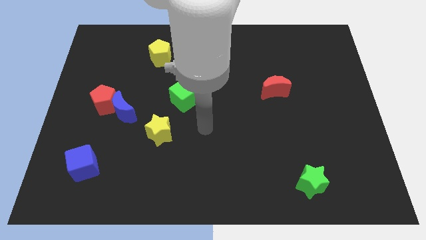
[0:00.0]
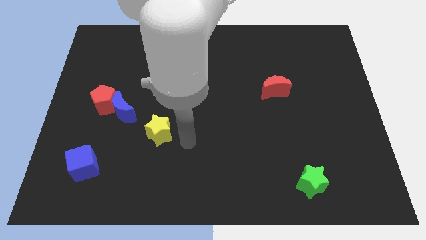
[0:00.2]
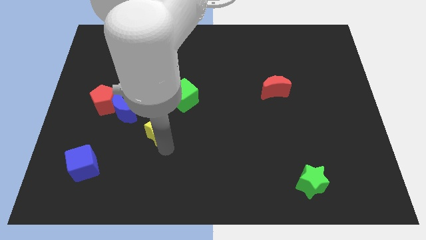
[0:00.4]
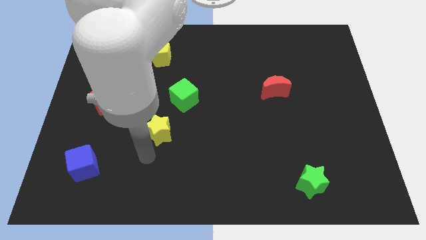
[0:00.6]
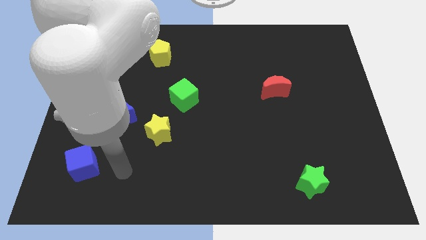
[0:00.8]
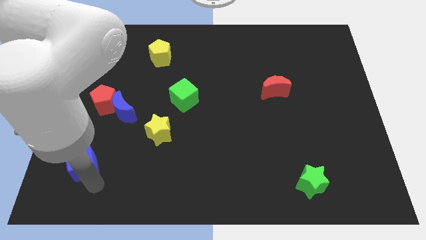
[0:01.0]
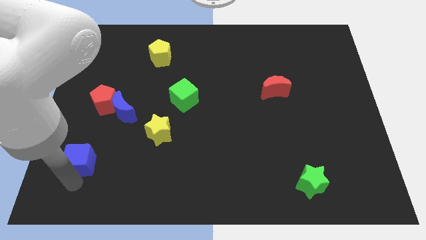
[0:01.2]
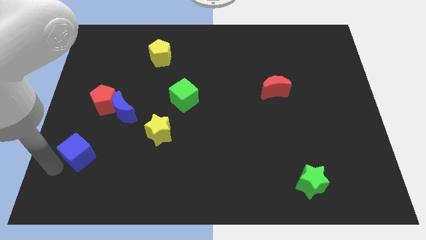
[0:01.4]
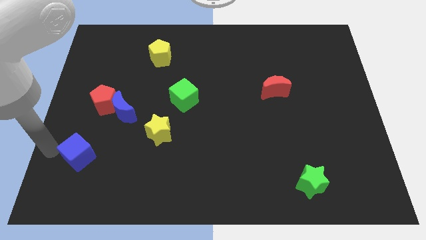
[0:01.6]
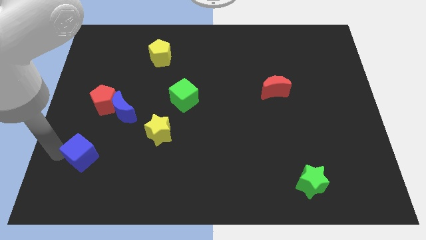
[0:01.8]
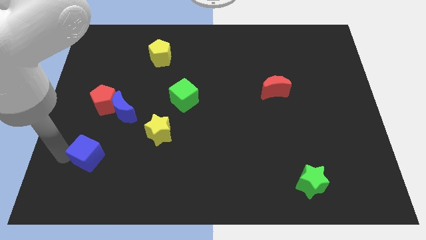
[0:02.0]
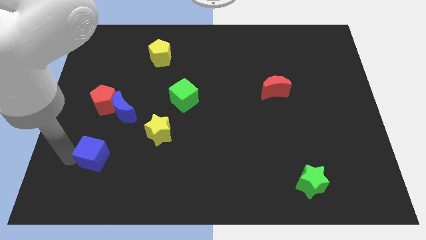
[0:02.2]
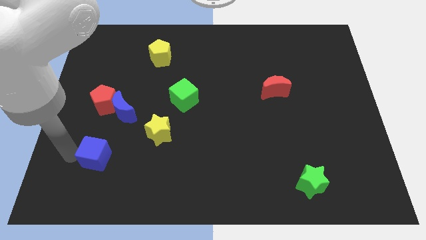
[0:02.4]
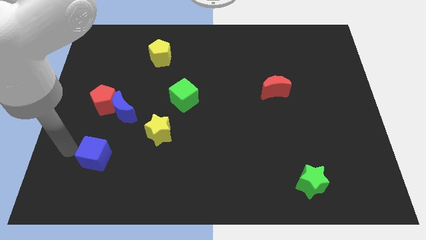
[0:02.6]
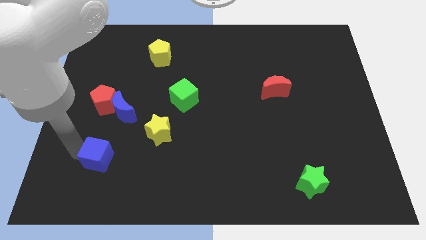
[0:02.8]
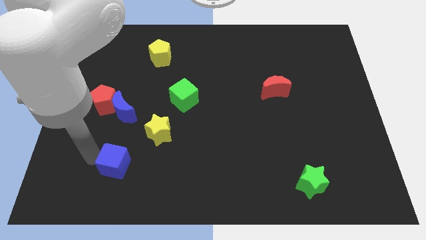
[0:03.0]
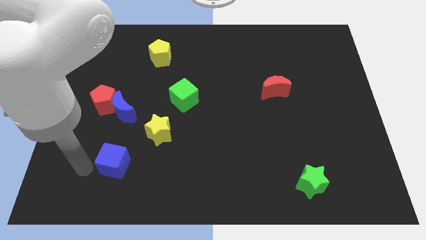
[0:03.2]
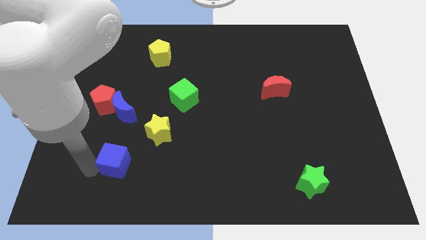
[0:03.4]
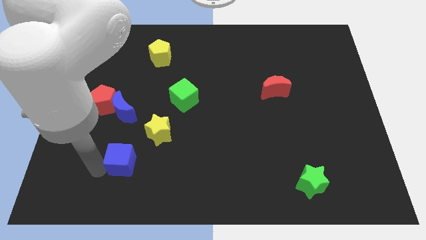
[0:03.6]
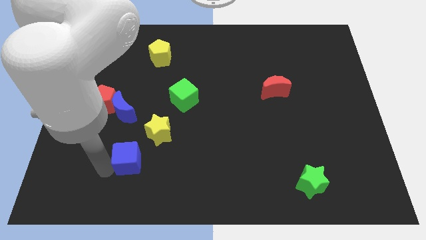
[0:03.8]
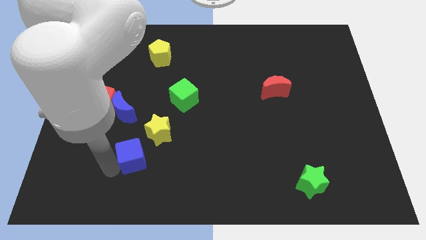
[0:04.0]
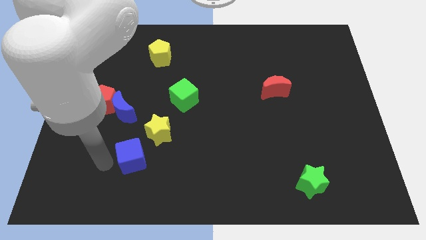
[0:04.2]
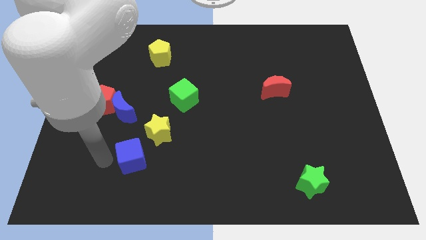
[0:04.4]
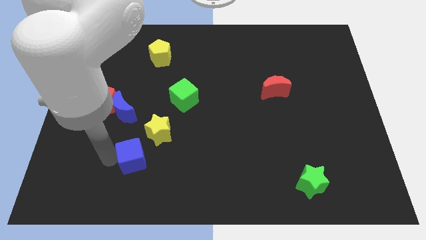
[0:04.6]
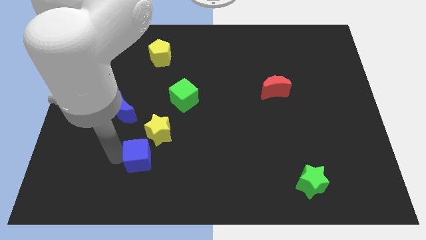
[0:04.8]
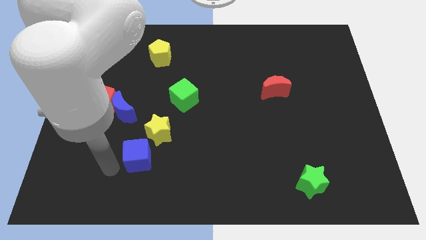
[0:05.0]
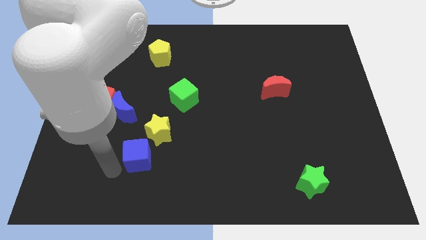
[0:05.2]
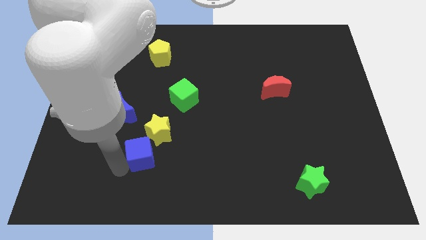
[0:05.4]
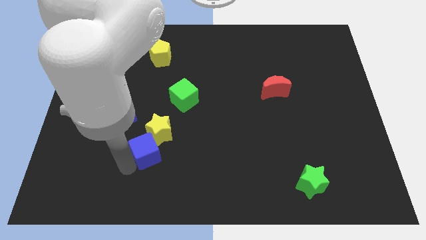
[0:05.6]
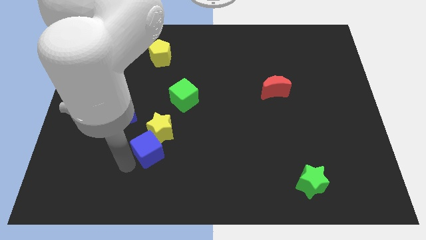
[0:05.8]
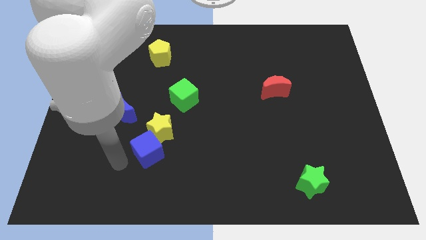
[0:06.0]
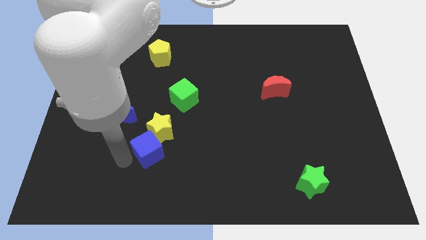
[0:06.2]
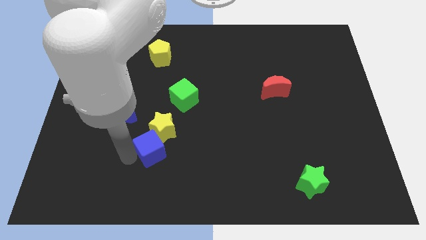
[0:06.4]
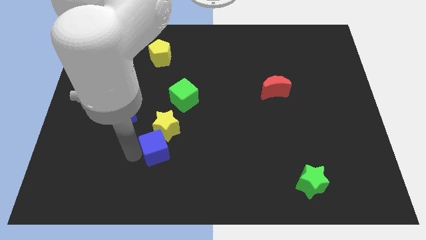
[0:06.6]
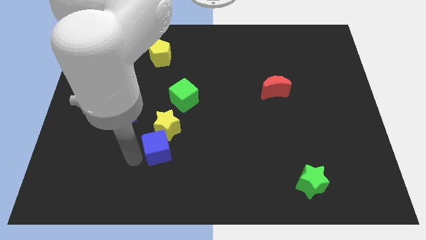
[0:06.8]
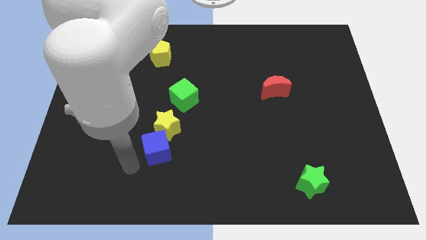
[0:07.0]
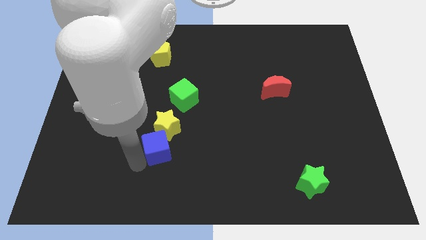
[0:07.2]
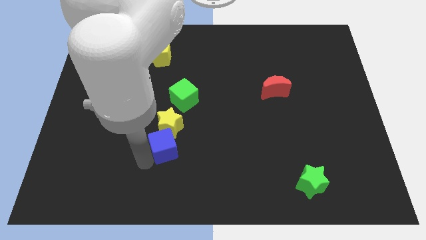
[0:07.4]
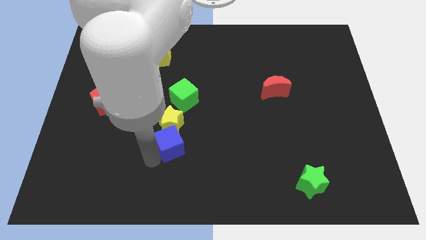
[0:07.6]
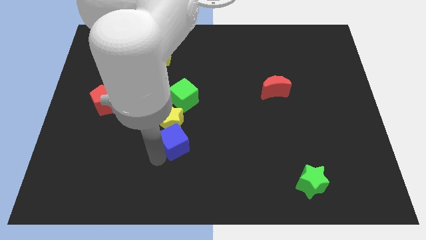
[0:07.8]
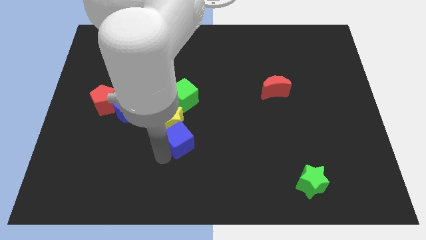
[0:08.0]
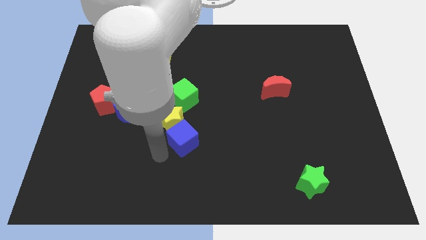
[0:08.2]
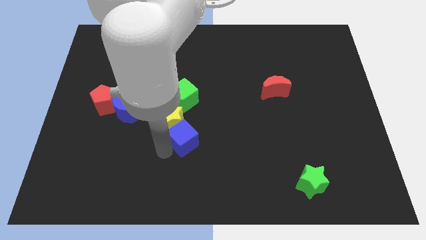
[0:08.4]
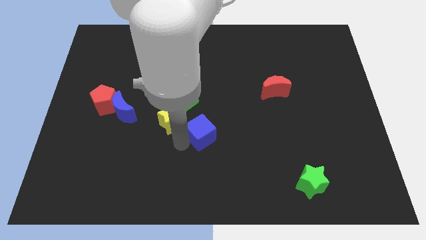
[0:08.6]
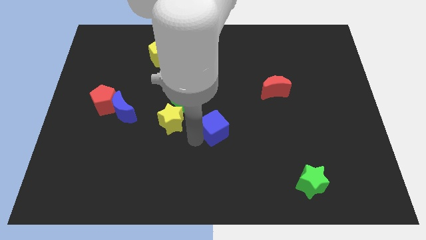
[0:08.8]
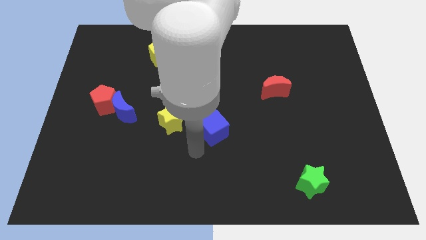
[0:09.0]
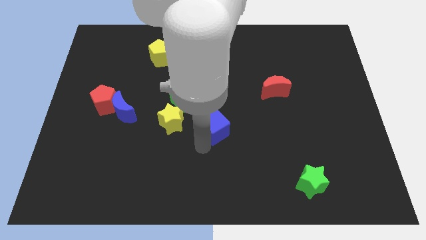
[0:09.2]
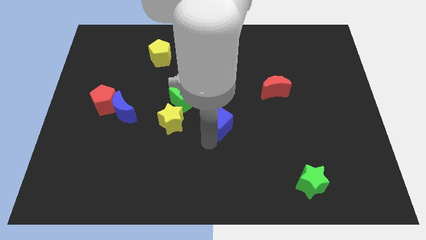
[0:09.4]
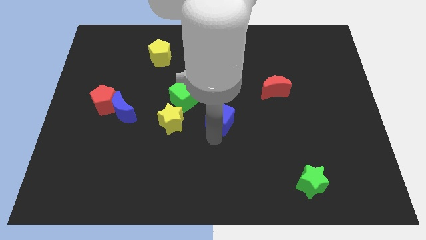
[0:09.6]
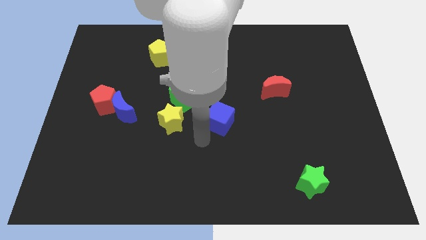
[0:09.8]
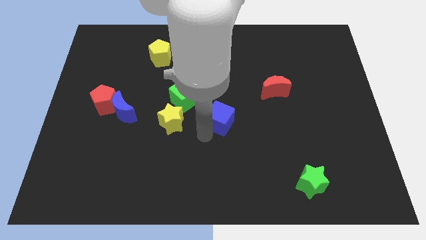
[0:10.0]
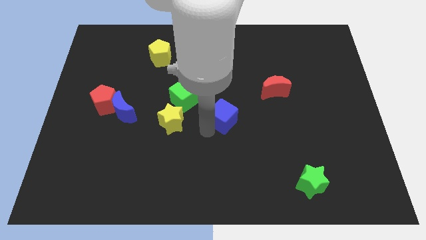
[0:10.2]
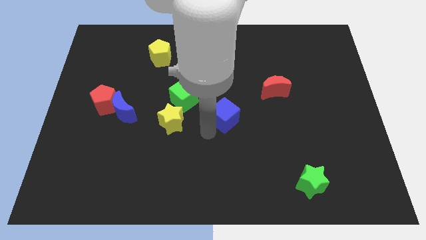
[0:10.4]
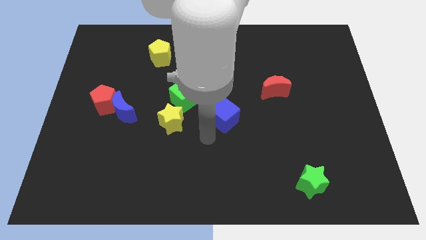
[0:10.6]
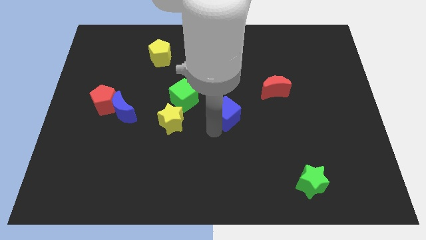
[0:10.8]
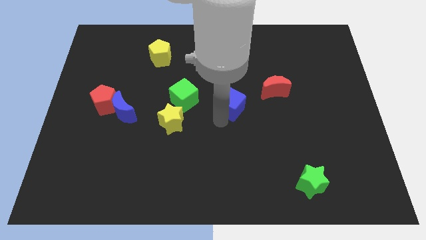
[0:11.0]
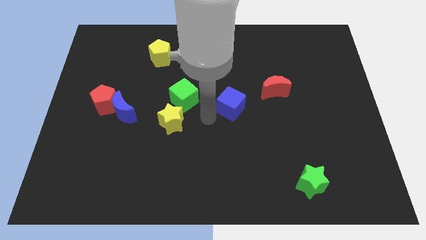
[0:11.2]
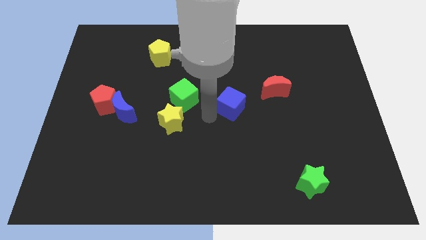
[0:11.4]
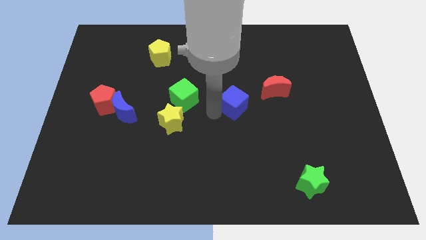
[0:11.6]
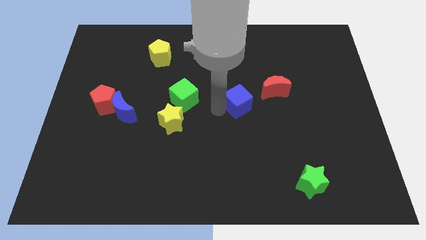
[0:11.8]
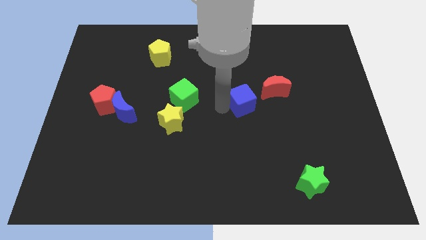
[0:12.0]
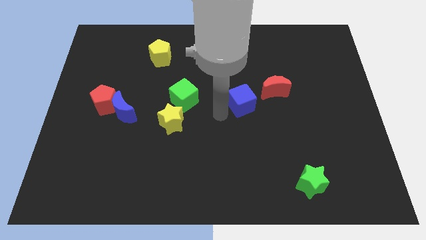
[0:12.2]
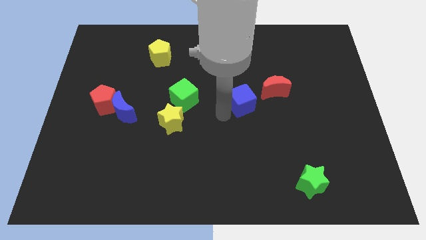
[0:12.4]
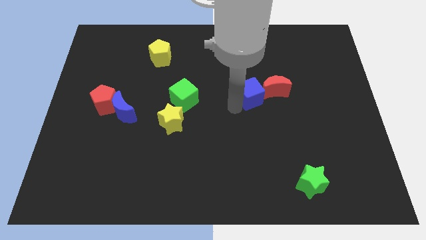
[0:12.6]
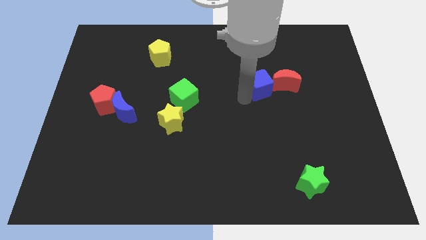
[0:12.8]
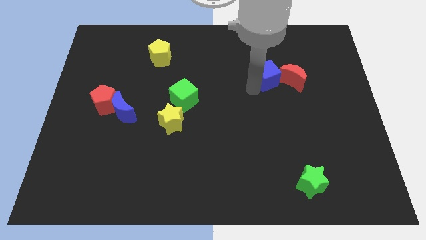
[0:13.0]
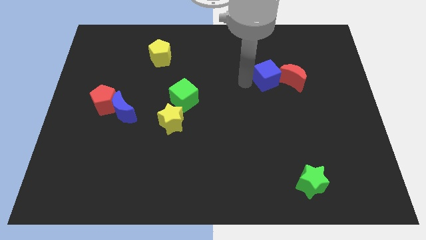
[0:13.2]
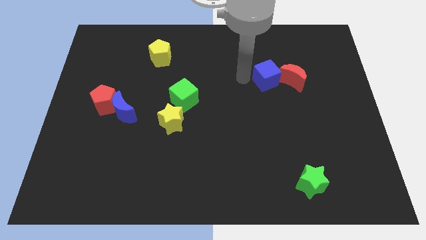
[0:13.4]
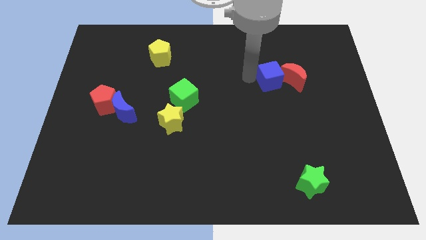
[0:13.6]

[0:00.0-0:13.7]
slide the blue cube close to the red moon
